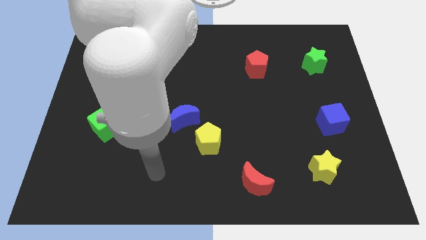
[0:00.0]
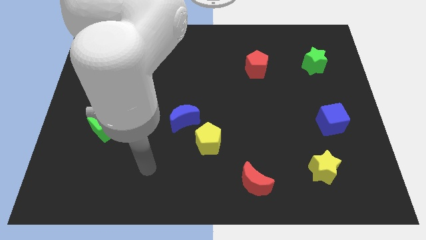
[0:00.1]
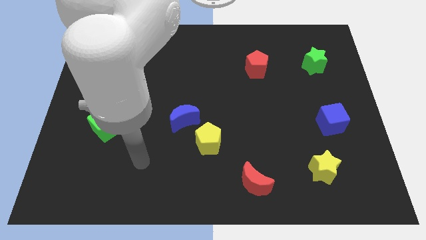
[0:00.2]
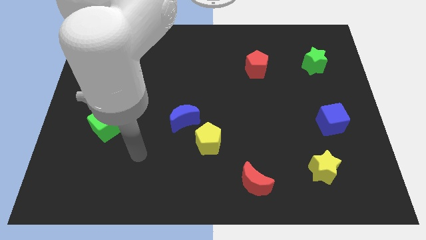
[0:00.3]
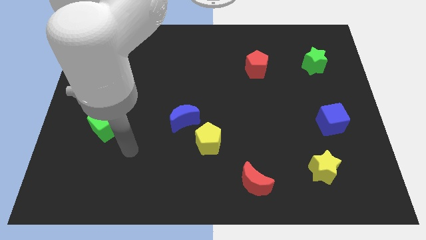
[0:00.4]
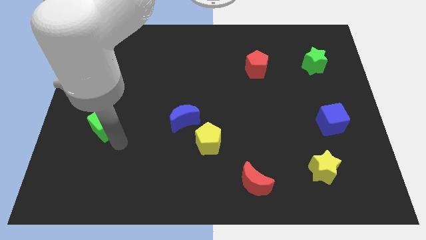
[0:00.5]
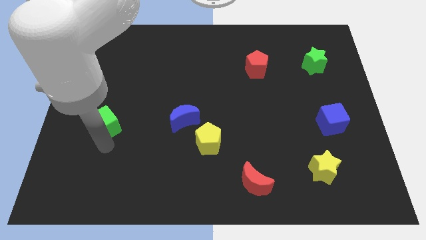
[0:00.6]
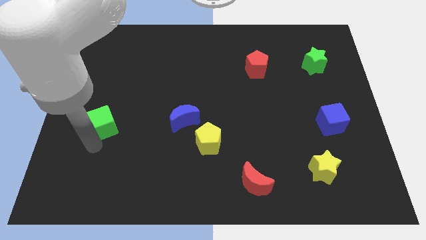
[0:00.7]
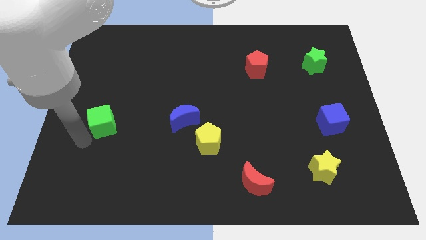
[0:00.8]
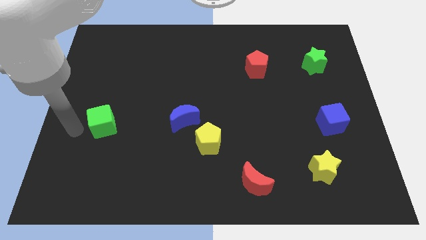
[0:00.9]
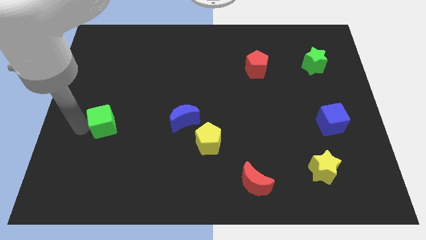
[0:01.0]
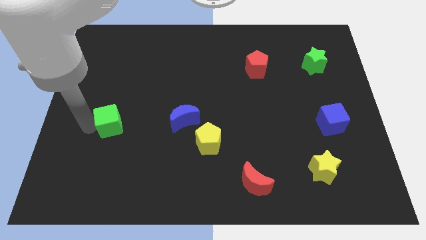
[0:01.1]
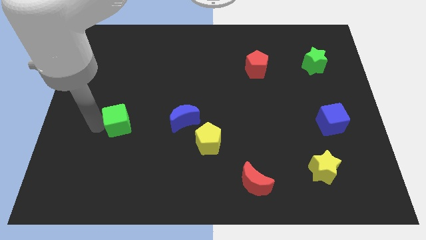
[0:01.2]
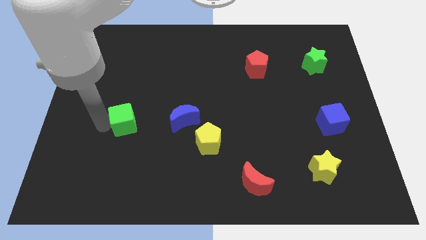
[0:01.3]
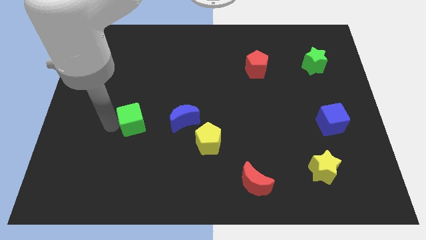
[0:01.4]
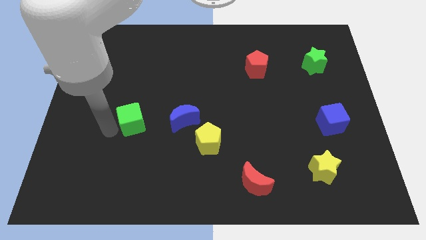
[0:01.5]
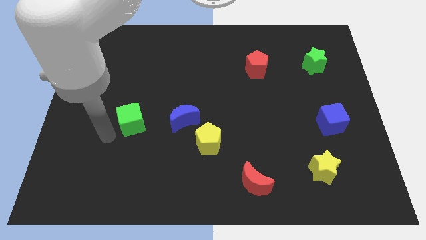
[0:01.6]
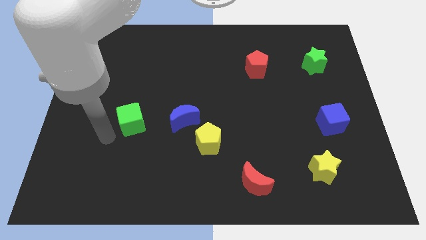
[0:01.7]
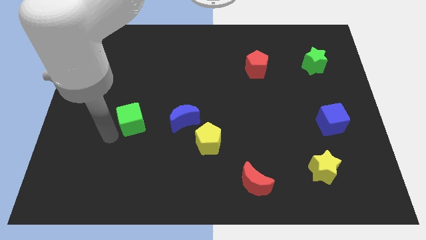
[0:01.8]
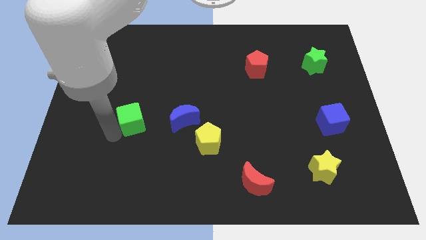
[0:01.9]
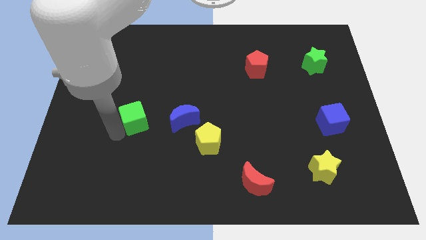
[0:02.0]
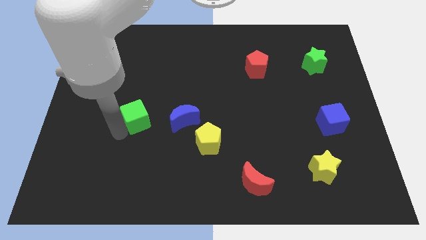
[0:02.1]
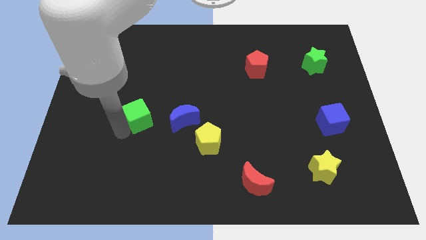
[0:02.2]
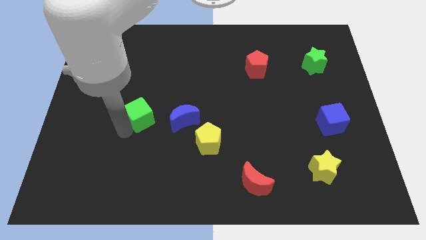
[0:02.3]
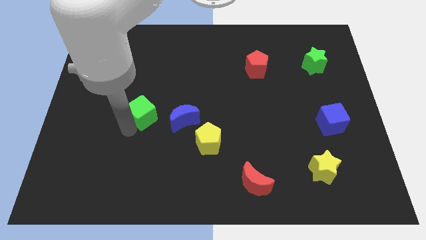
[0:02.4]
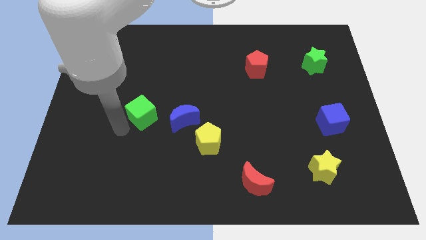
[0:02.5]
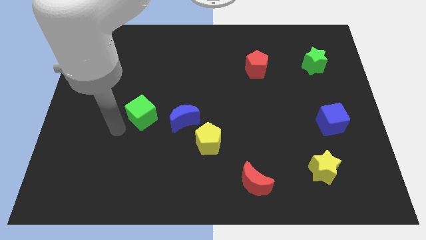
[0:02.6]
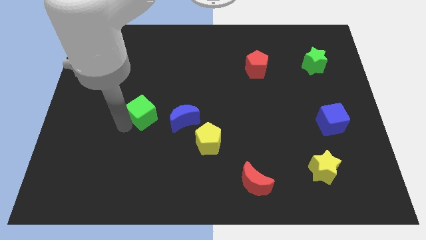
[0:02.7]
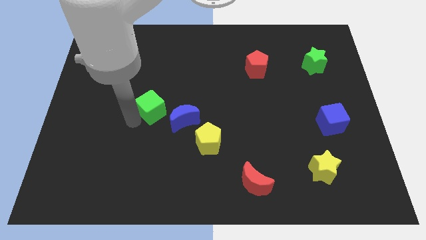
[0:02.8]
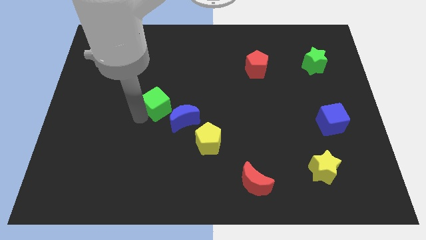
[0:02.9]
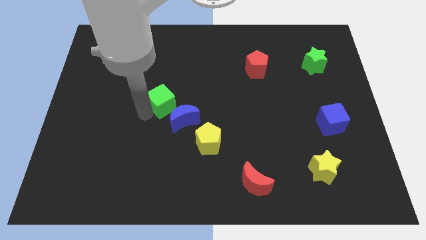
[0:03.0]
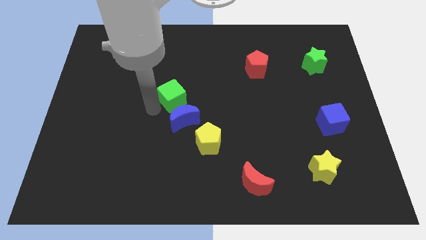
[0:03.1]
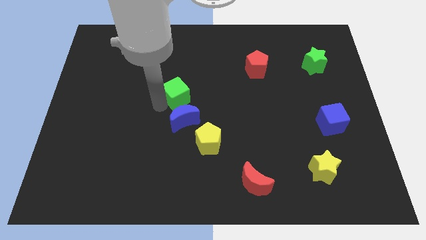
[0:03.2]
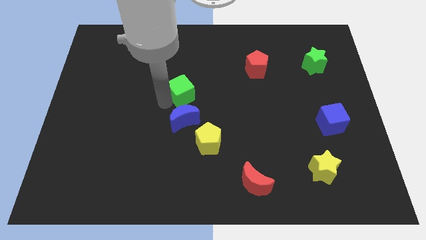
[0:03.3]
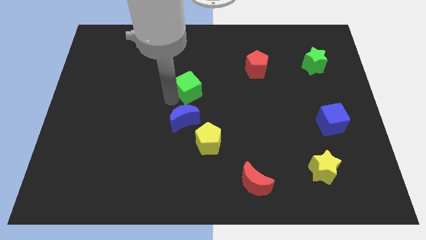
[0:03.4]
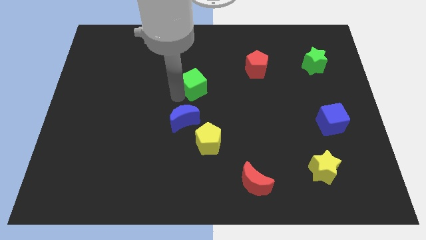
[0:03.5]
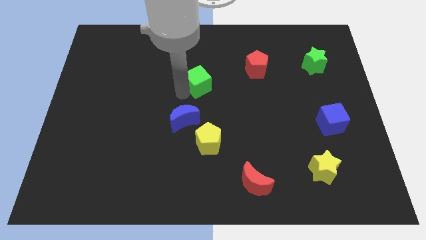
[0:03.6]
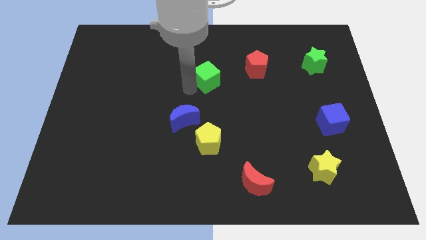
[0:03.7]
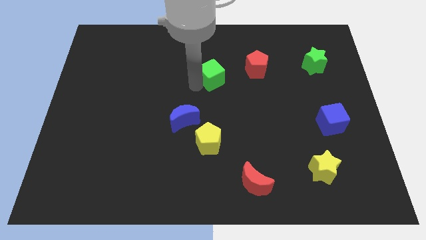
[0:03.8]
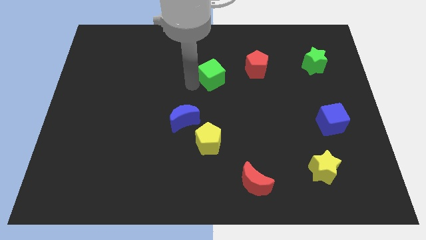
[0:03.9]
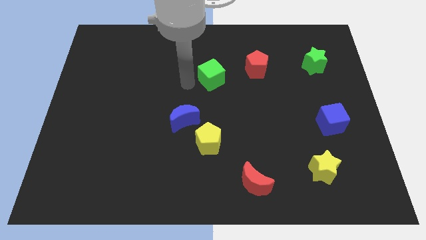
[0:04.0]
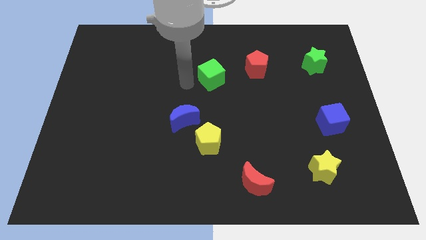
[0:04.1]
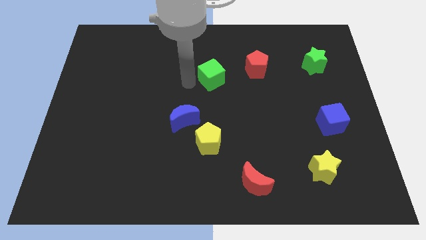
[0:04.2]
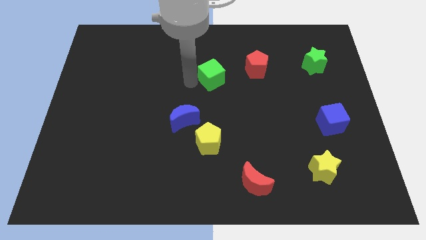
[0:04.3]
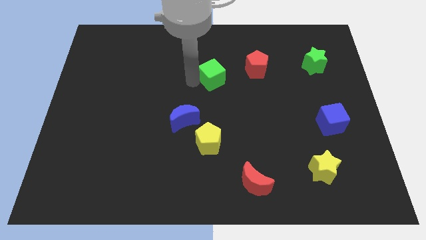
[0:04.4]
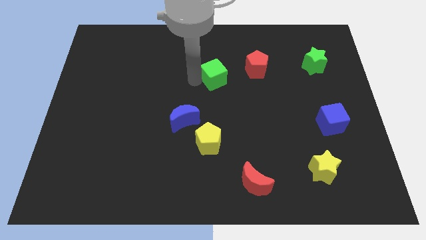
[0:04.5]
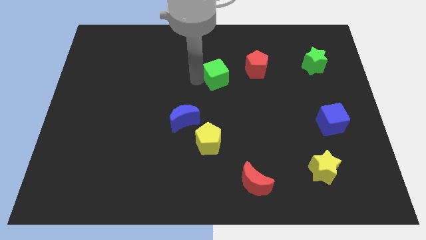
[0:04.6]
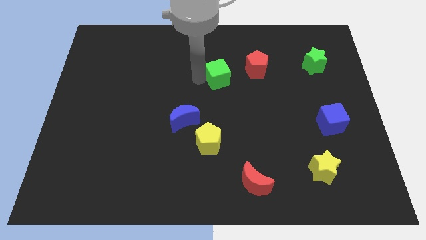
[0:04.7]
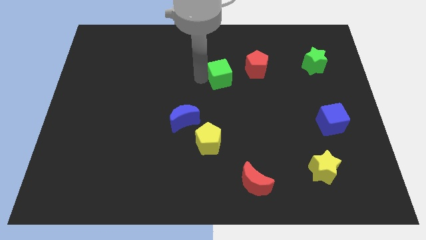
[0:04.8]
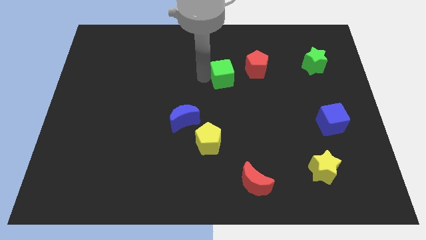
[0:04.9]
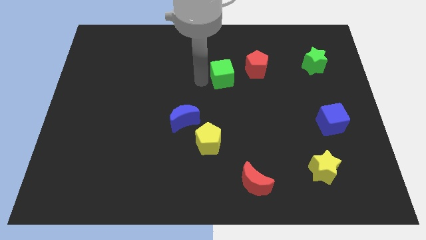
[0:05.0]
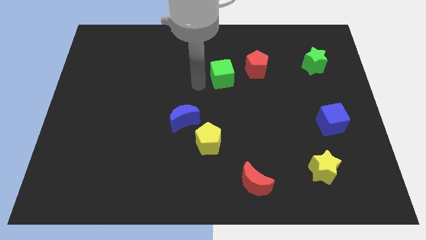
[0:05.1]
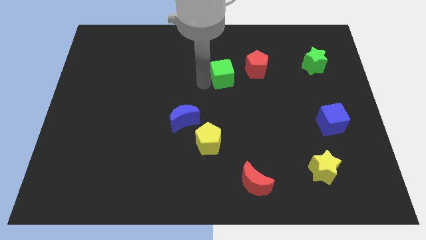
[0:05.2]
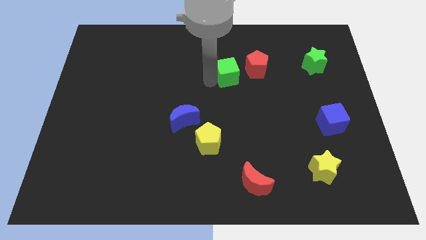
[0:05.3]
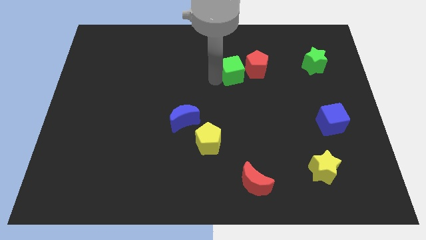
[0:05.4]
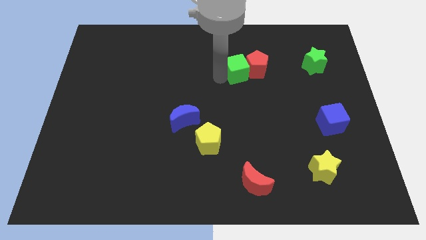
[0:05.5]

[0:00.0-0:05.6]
move the green cube close to the red pentagon

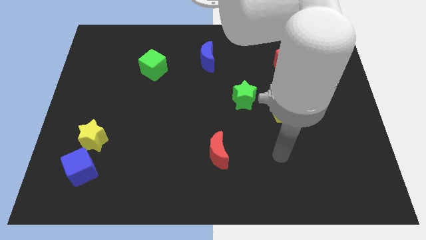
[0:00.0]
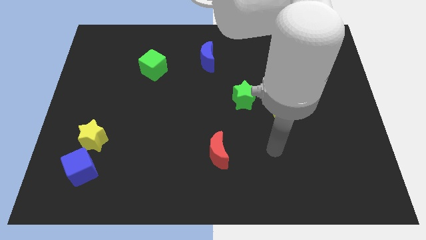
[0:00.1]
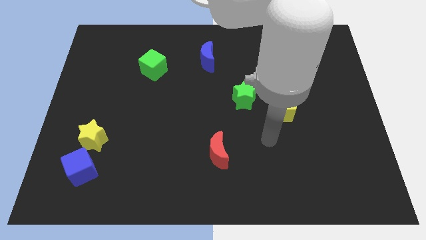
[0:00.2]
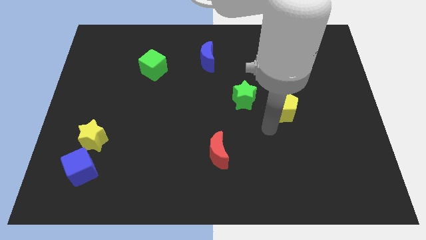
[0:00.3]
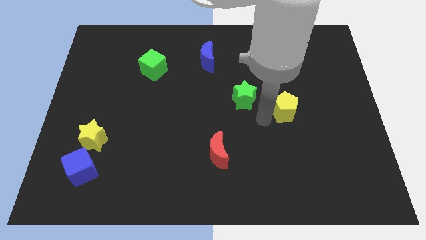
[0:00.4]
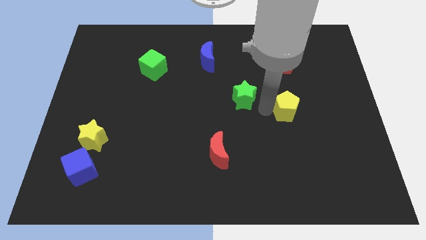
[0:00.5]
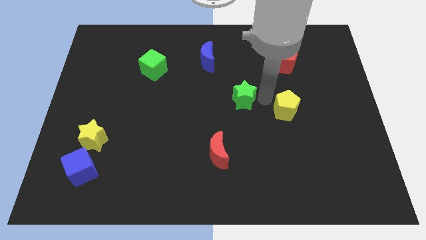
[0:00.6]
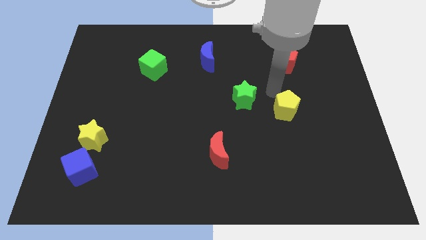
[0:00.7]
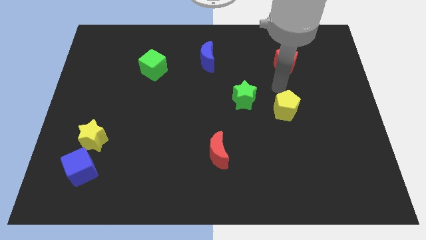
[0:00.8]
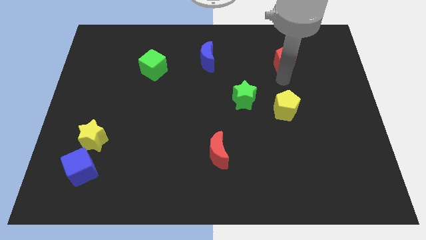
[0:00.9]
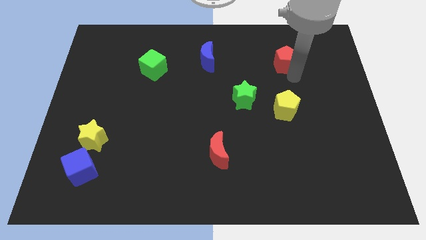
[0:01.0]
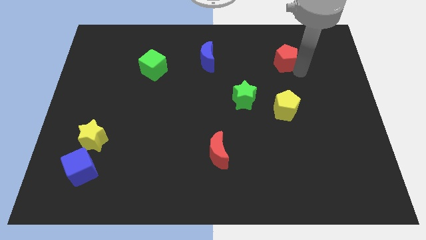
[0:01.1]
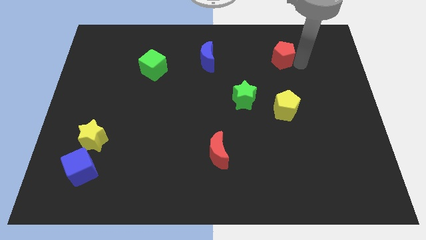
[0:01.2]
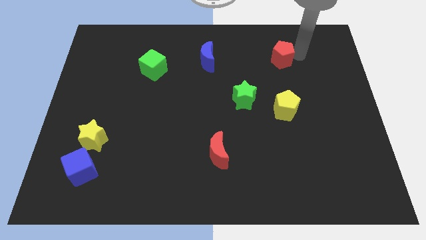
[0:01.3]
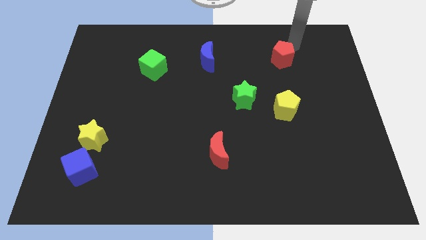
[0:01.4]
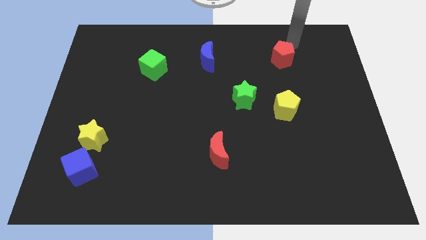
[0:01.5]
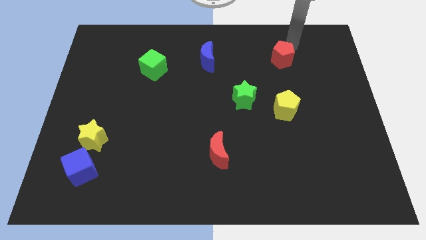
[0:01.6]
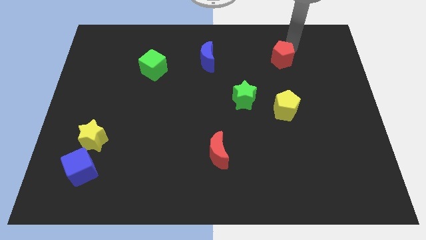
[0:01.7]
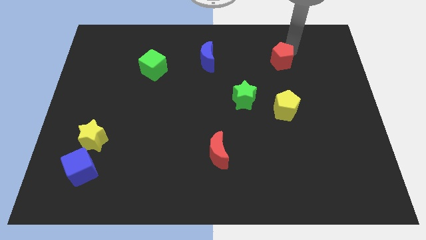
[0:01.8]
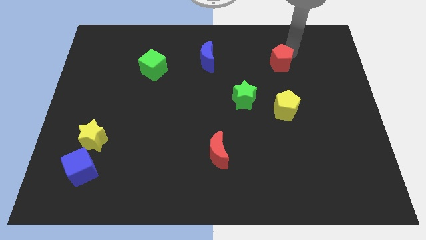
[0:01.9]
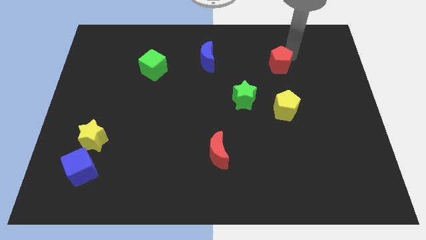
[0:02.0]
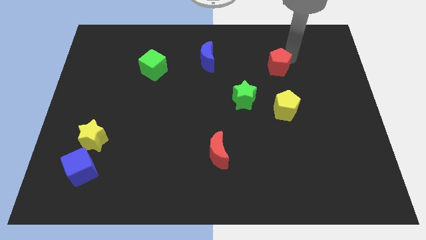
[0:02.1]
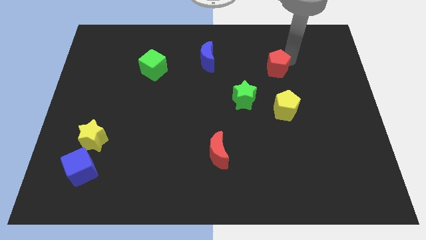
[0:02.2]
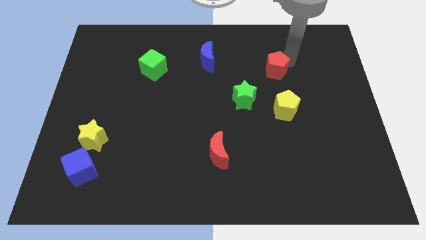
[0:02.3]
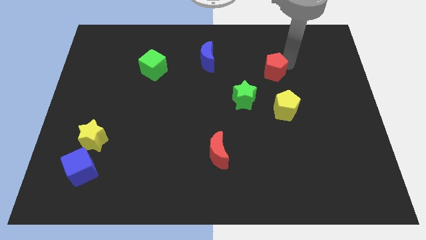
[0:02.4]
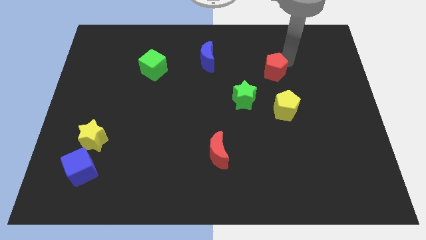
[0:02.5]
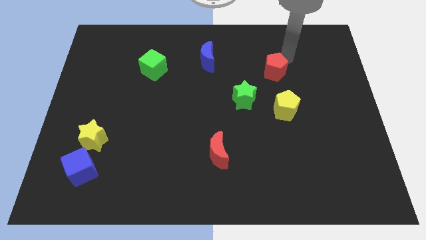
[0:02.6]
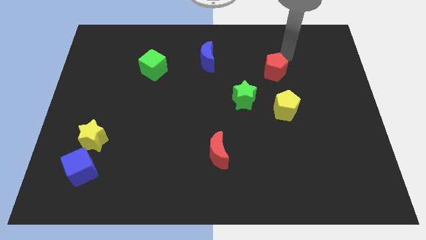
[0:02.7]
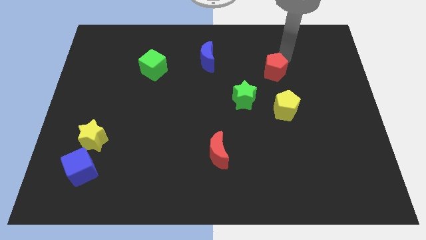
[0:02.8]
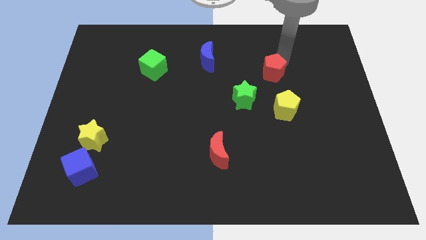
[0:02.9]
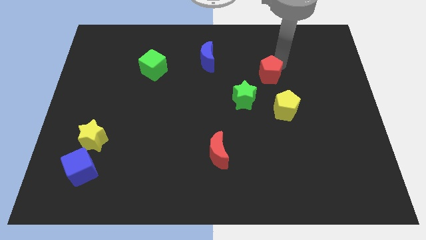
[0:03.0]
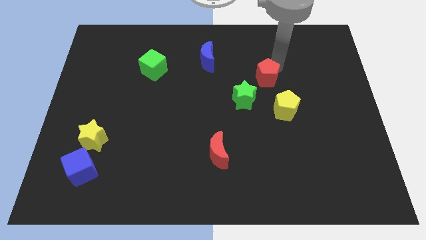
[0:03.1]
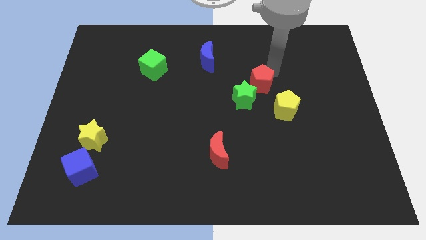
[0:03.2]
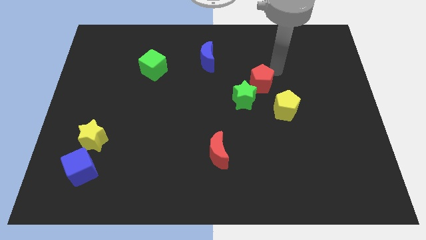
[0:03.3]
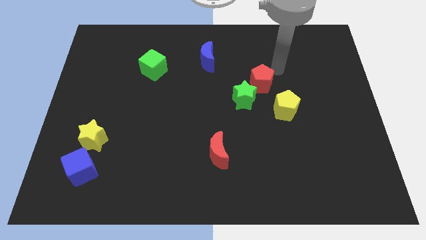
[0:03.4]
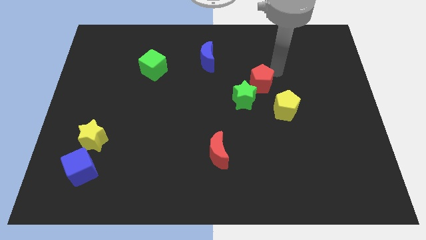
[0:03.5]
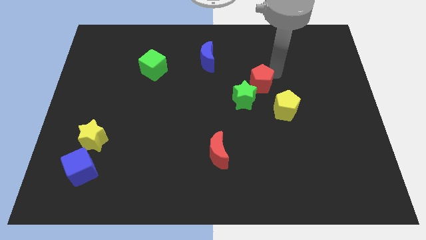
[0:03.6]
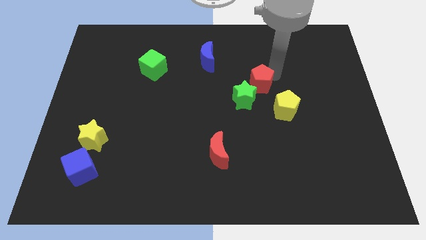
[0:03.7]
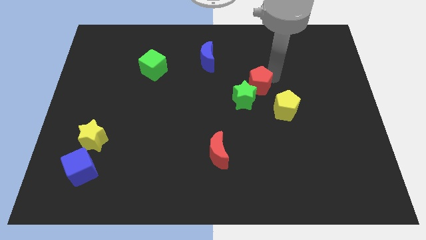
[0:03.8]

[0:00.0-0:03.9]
slide the red pentagon close to the green star
